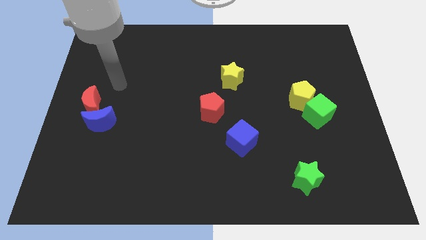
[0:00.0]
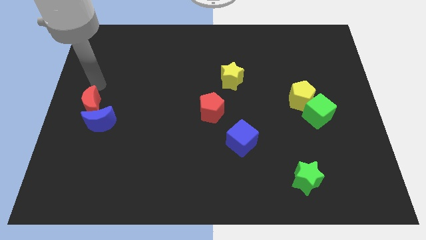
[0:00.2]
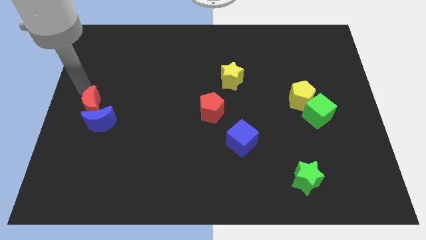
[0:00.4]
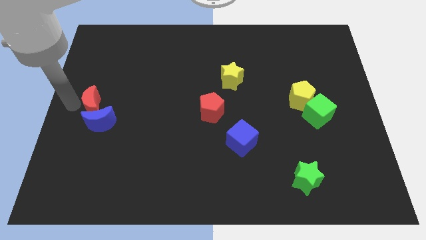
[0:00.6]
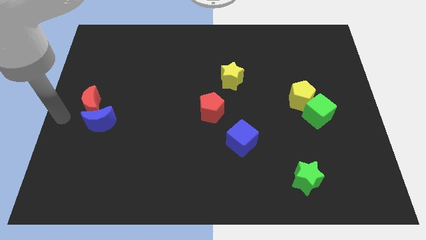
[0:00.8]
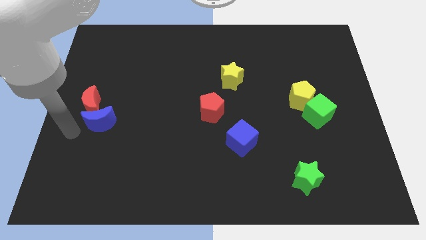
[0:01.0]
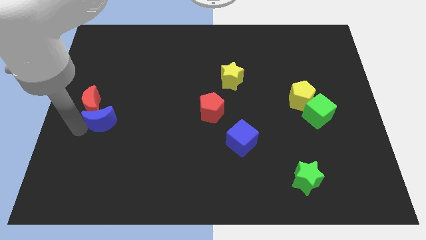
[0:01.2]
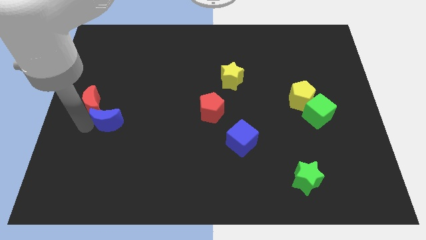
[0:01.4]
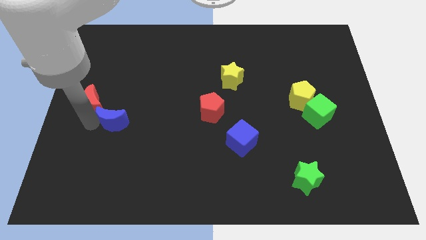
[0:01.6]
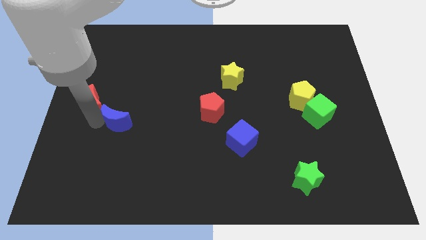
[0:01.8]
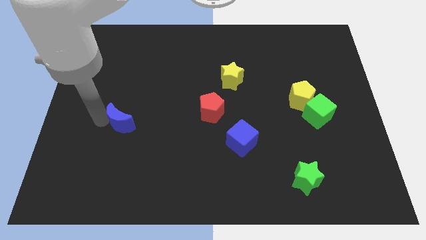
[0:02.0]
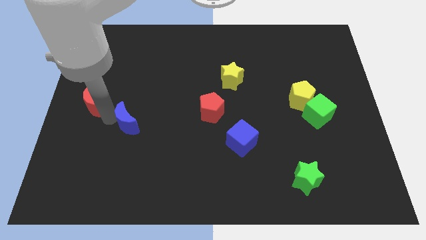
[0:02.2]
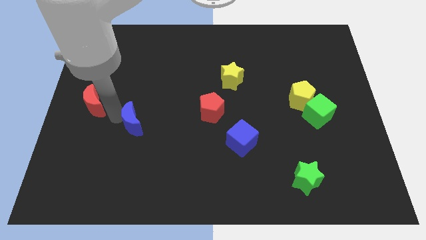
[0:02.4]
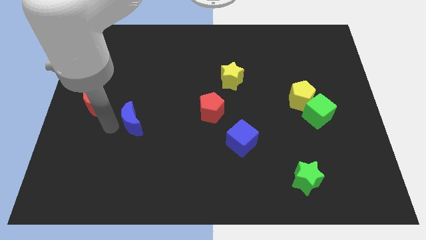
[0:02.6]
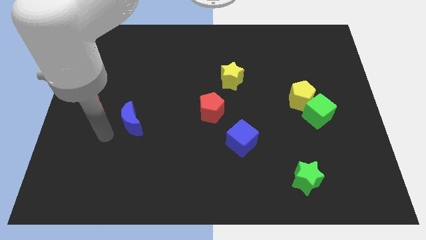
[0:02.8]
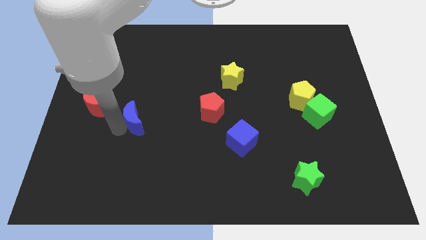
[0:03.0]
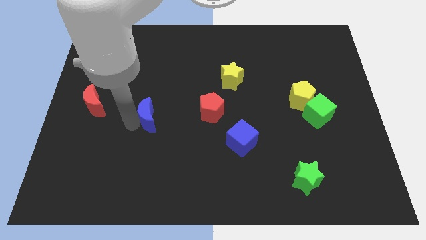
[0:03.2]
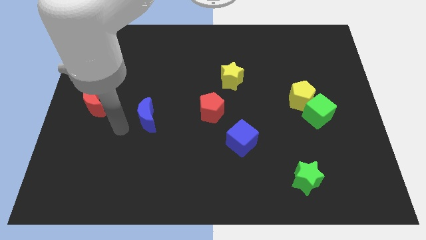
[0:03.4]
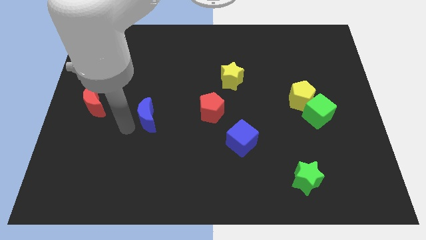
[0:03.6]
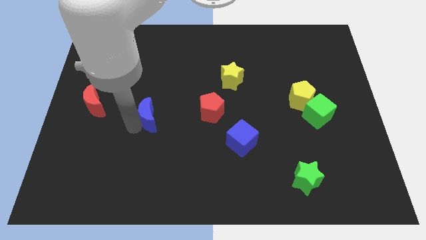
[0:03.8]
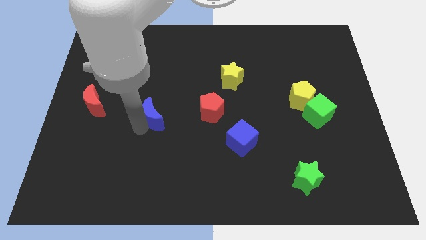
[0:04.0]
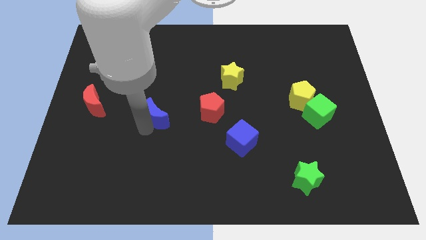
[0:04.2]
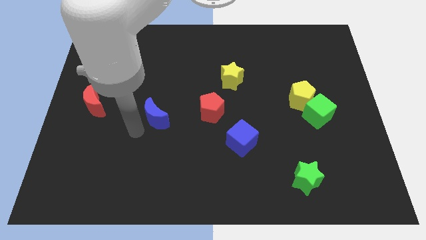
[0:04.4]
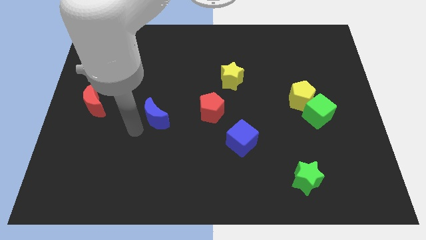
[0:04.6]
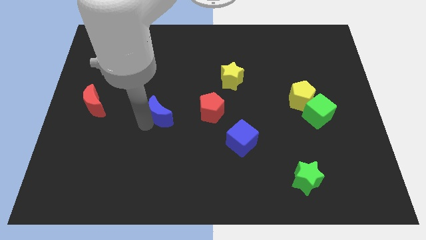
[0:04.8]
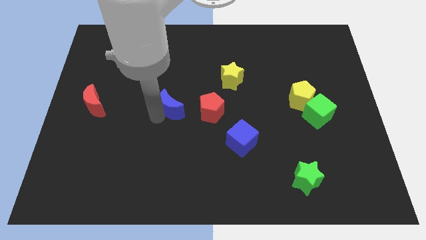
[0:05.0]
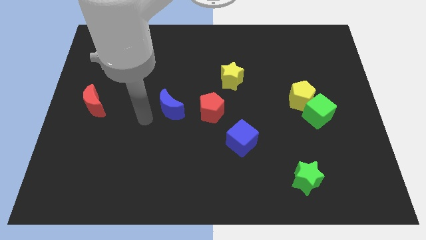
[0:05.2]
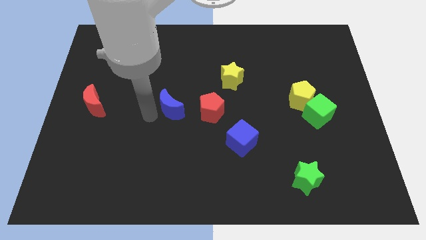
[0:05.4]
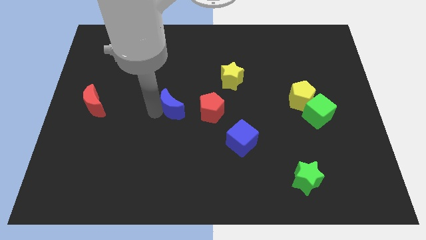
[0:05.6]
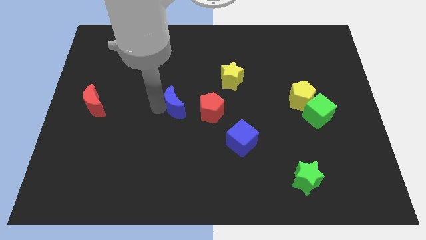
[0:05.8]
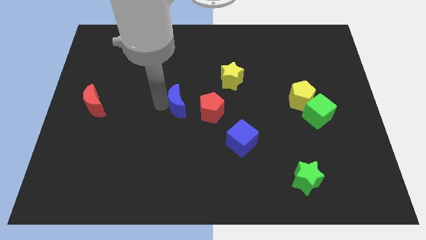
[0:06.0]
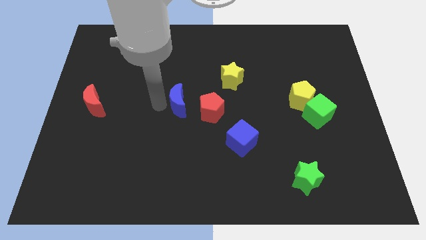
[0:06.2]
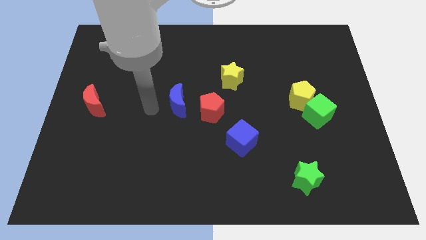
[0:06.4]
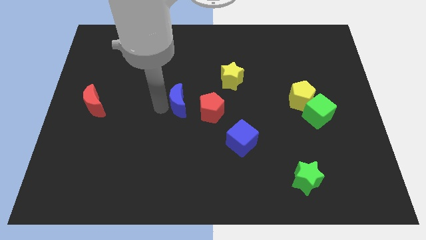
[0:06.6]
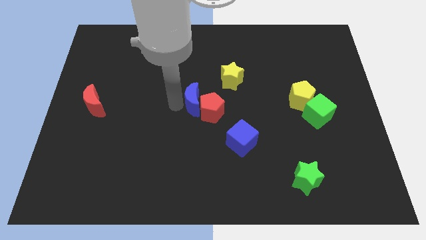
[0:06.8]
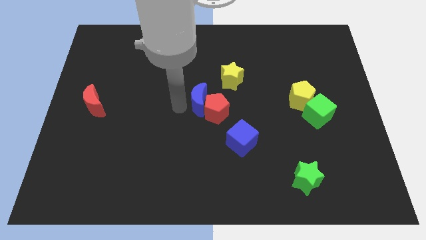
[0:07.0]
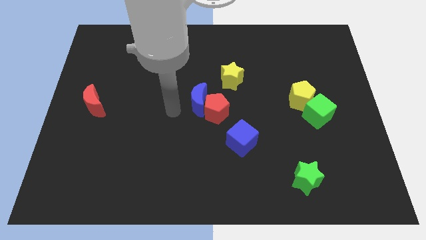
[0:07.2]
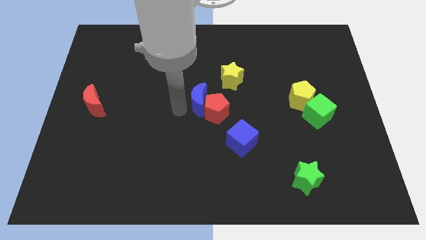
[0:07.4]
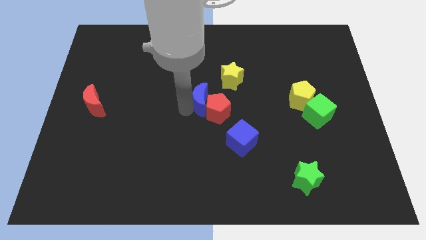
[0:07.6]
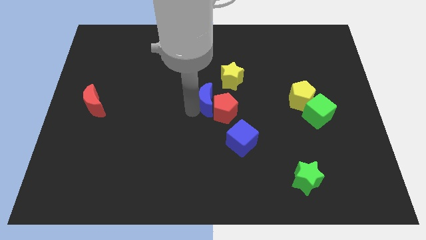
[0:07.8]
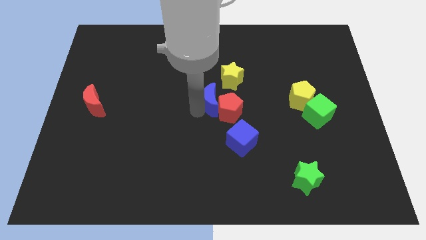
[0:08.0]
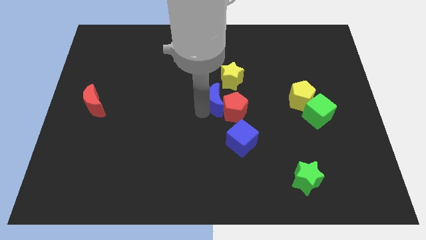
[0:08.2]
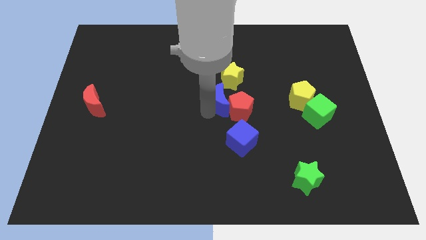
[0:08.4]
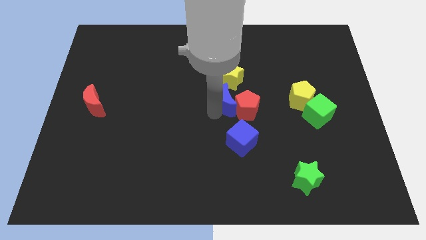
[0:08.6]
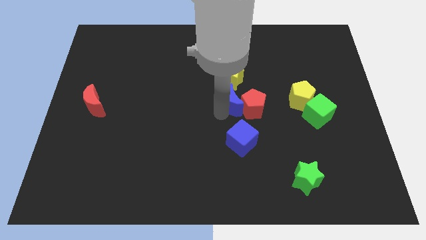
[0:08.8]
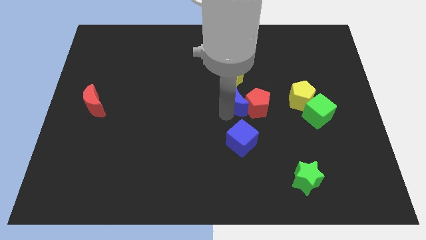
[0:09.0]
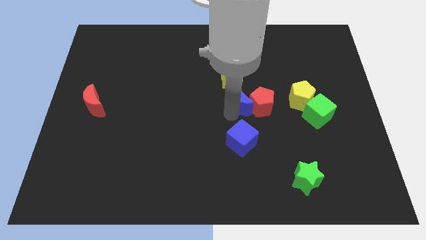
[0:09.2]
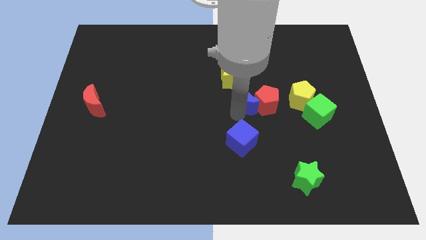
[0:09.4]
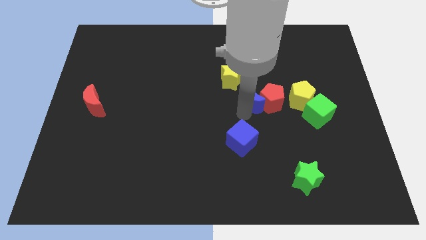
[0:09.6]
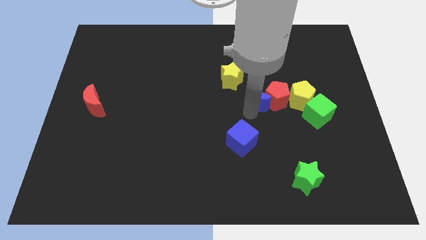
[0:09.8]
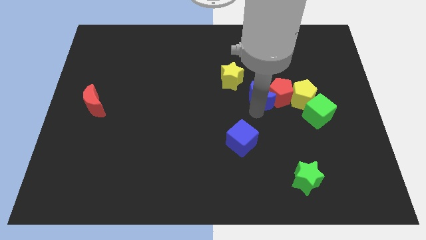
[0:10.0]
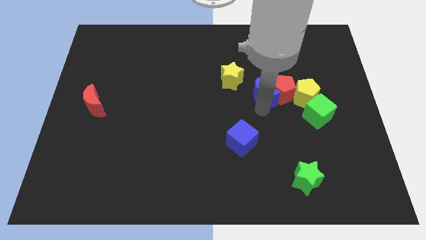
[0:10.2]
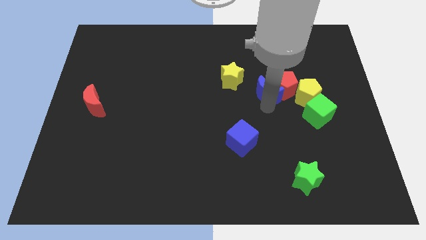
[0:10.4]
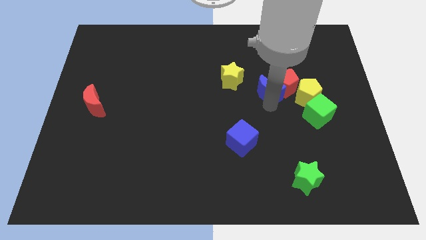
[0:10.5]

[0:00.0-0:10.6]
move the blue moon just right of the yellow star

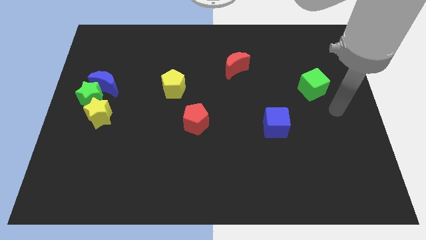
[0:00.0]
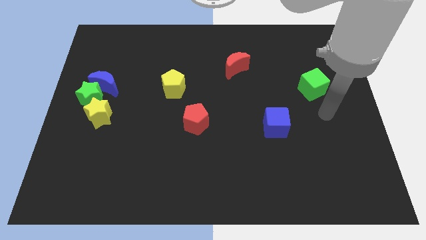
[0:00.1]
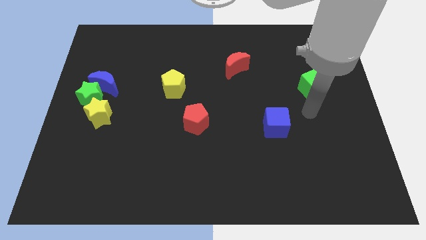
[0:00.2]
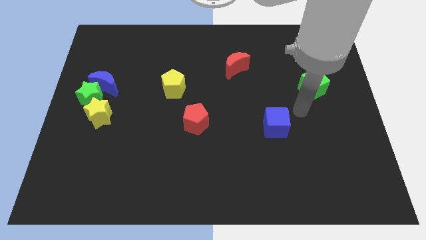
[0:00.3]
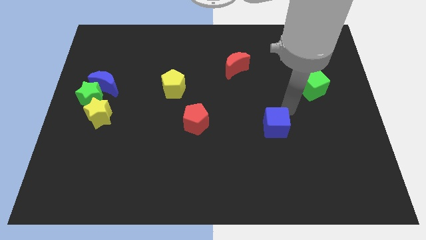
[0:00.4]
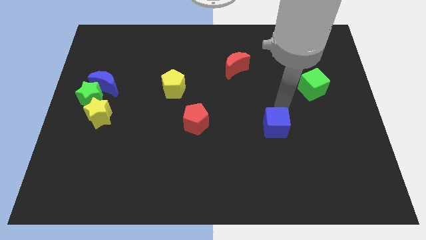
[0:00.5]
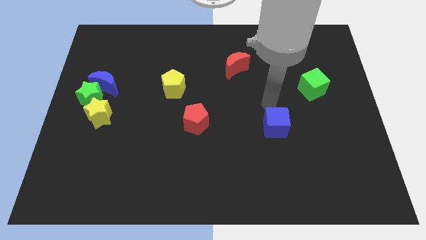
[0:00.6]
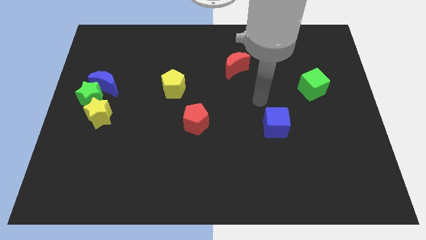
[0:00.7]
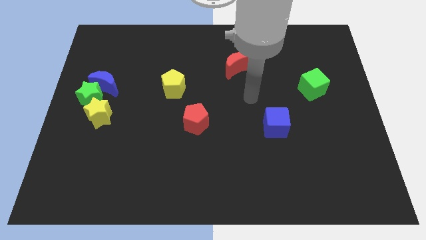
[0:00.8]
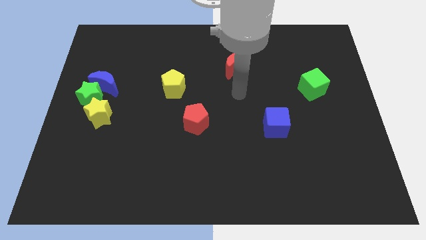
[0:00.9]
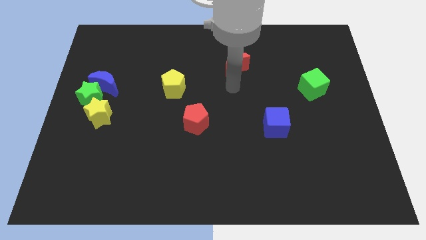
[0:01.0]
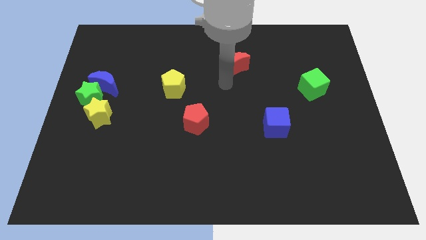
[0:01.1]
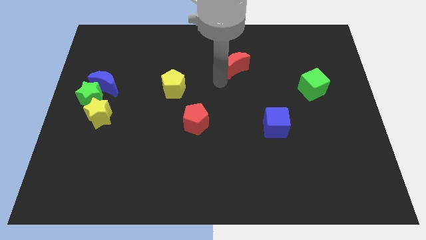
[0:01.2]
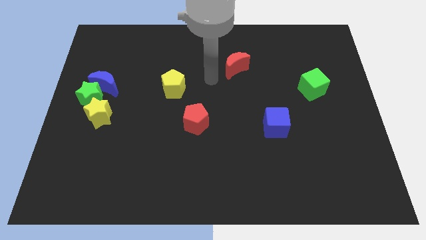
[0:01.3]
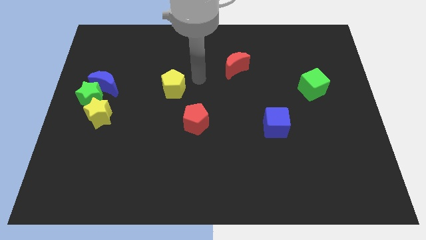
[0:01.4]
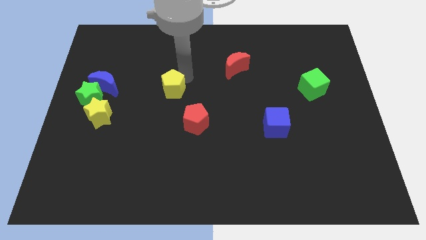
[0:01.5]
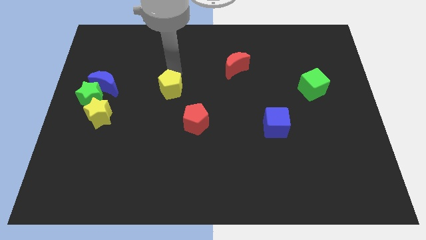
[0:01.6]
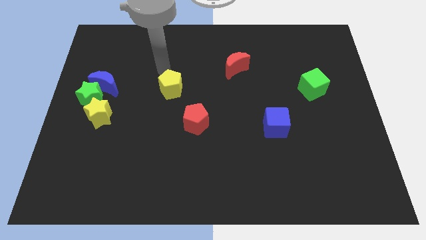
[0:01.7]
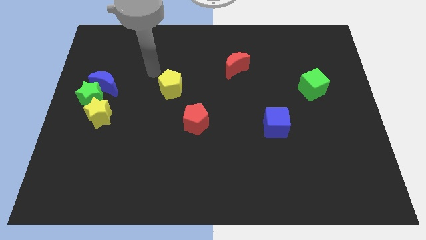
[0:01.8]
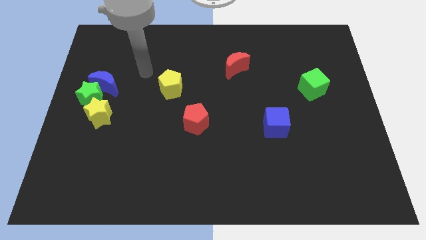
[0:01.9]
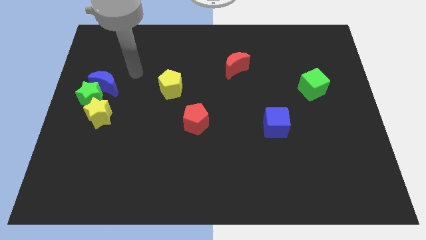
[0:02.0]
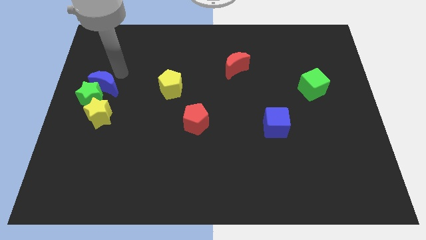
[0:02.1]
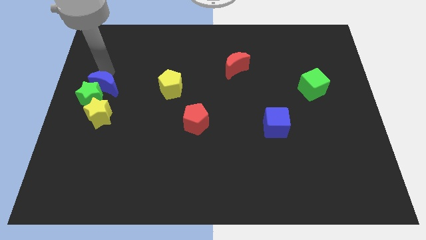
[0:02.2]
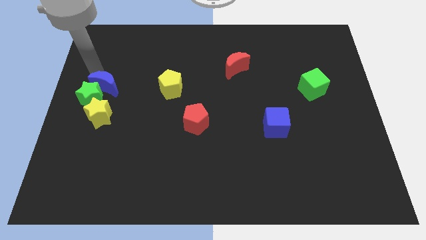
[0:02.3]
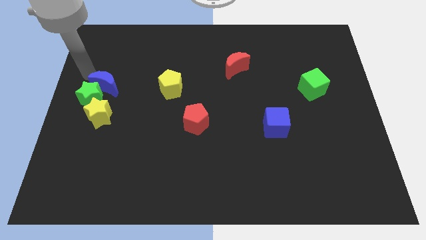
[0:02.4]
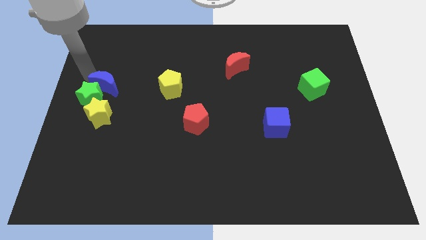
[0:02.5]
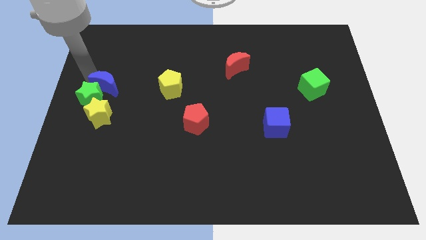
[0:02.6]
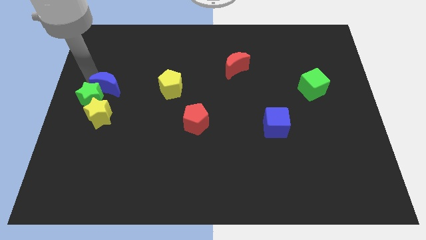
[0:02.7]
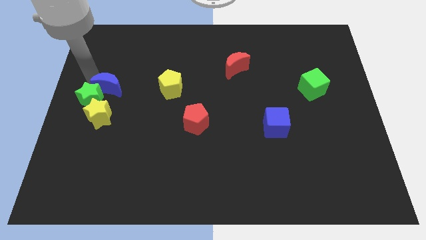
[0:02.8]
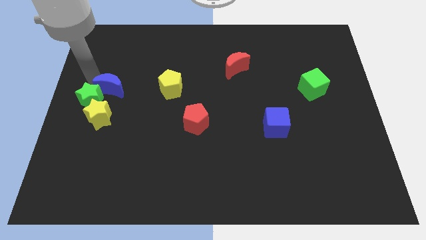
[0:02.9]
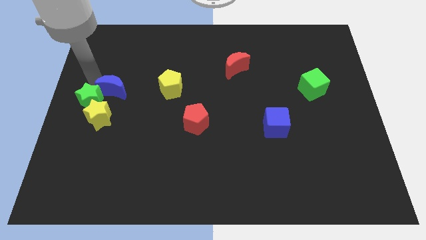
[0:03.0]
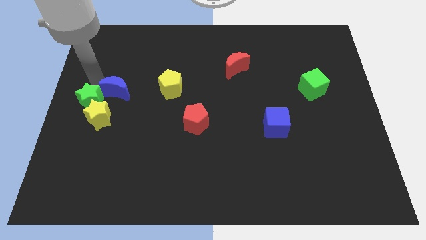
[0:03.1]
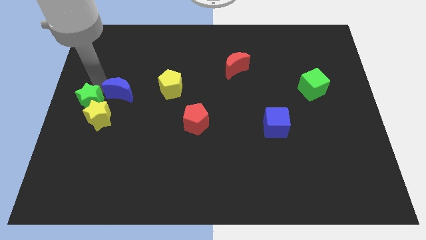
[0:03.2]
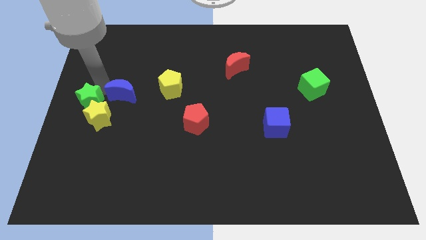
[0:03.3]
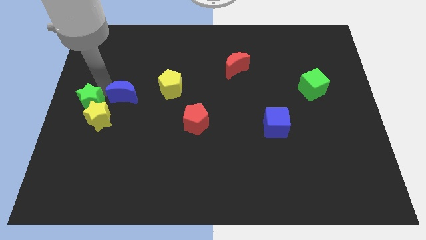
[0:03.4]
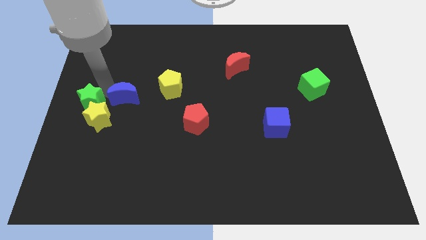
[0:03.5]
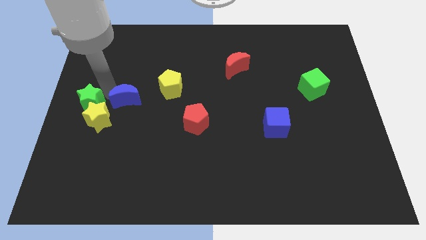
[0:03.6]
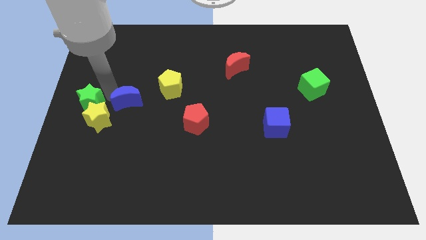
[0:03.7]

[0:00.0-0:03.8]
slide the blue moon to the bottom left side of the yellow pentagon
